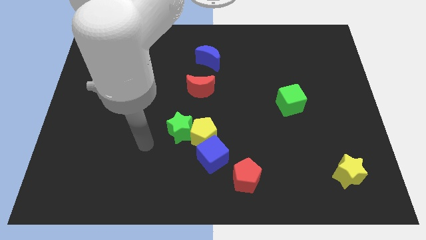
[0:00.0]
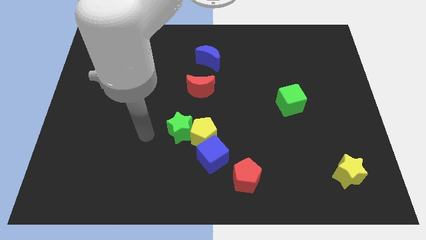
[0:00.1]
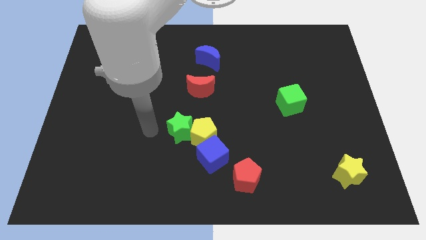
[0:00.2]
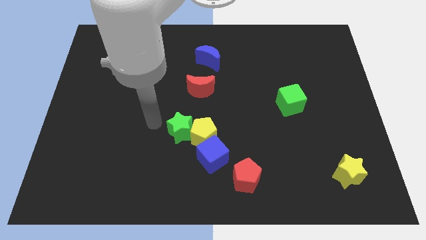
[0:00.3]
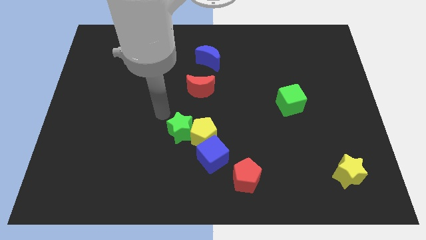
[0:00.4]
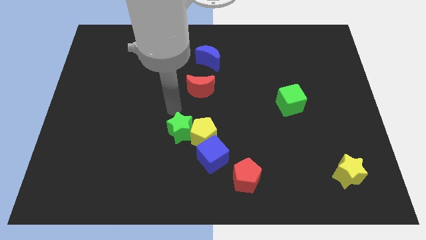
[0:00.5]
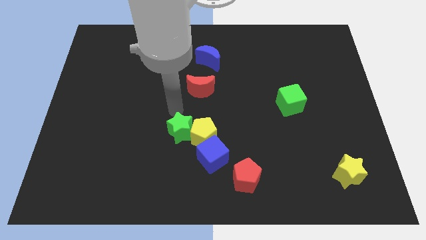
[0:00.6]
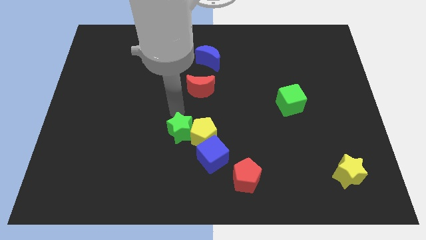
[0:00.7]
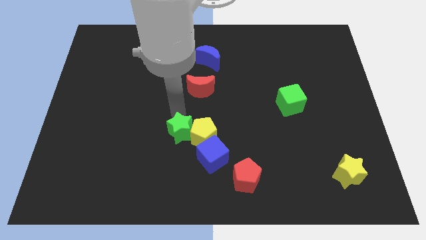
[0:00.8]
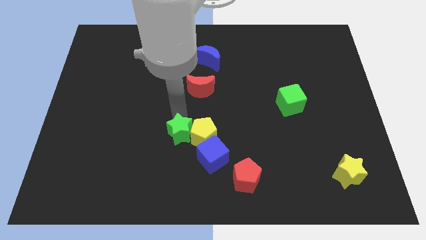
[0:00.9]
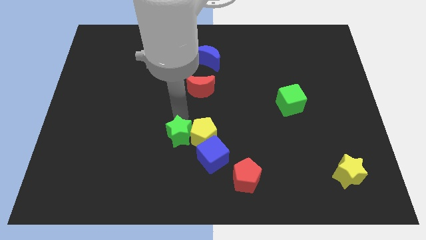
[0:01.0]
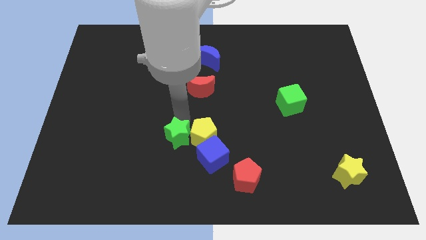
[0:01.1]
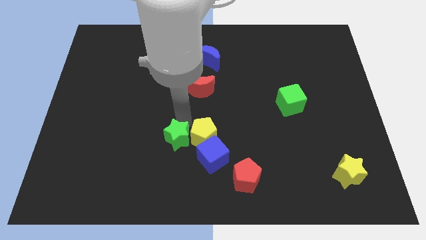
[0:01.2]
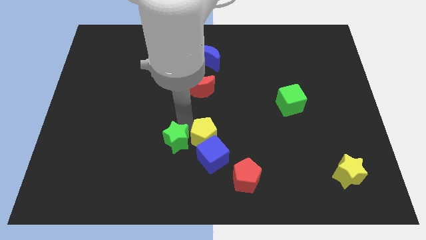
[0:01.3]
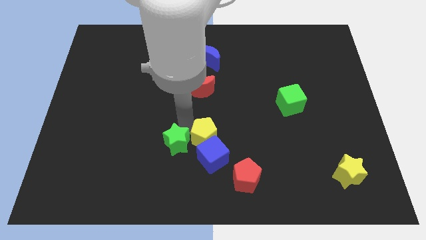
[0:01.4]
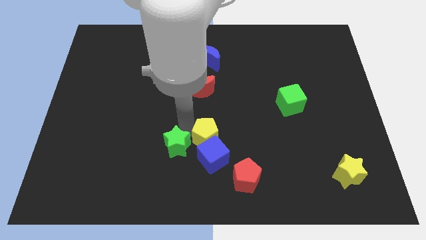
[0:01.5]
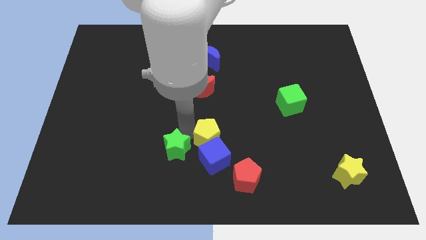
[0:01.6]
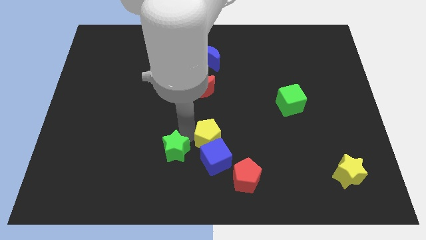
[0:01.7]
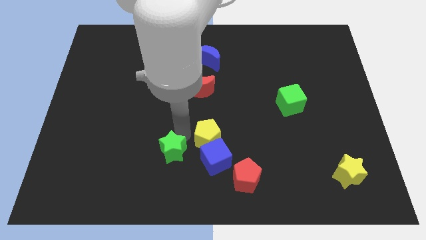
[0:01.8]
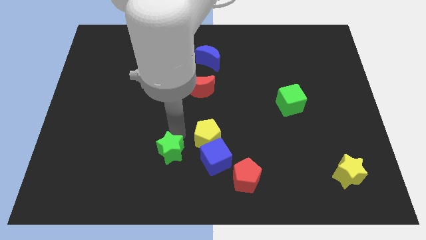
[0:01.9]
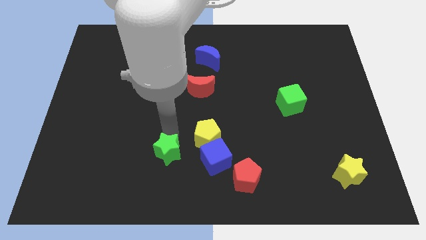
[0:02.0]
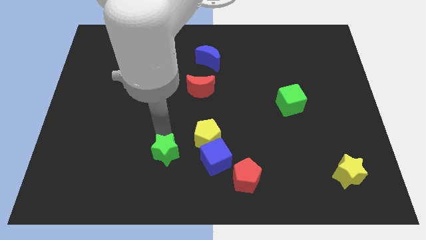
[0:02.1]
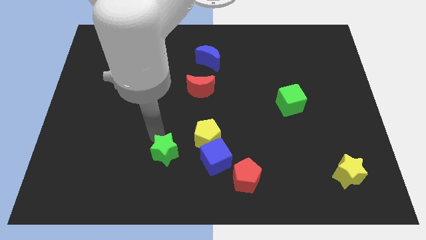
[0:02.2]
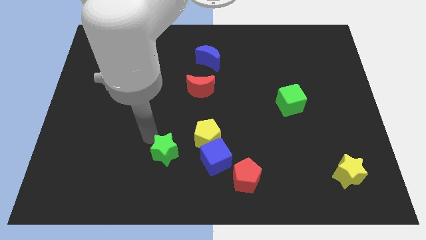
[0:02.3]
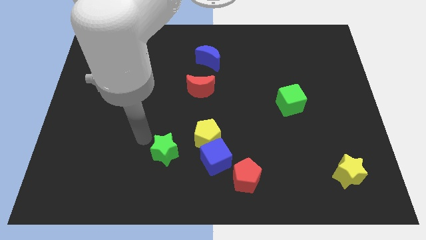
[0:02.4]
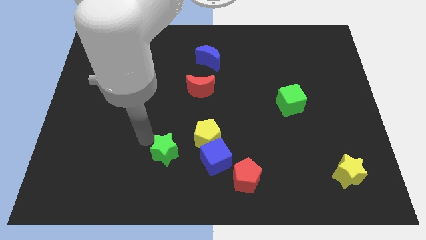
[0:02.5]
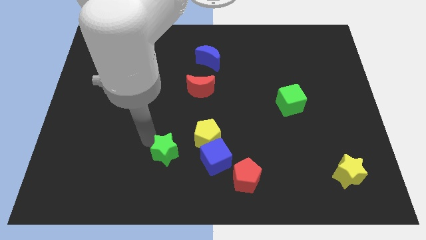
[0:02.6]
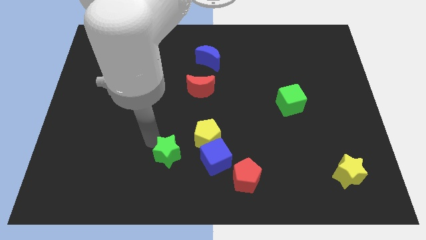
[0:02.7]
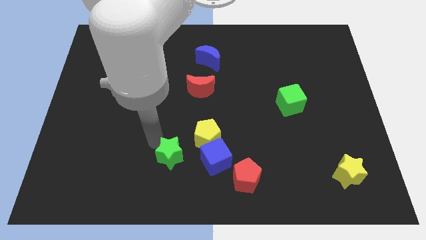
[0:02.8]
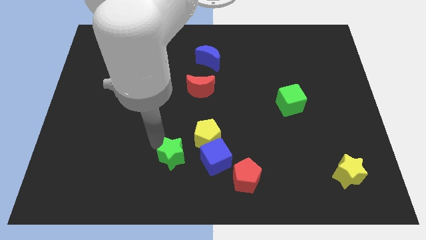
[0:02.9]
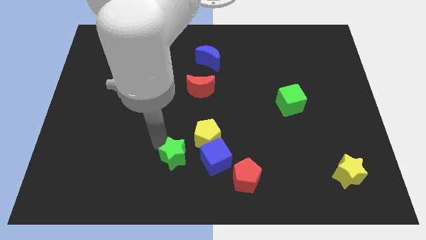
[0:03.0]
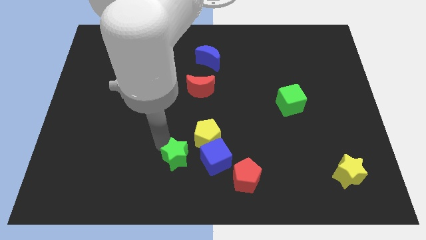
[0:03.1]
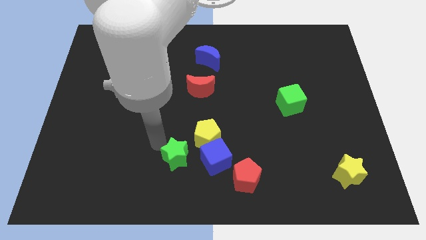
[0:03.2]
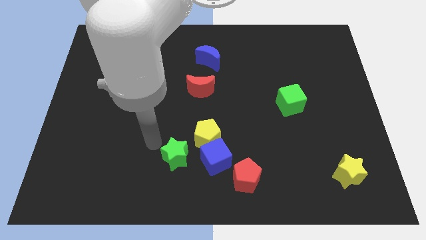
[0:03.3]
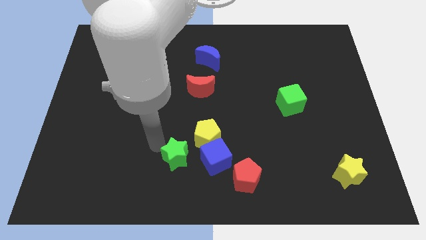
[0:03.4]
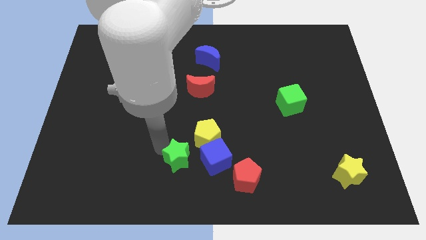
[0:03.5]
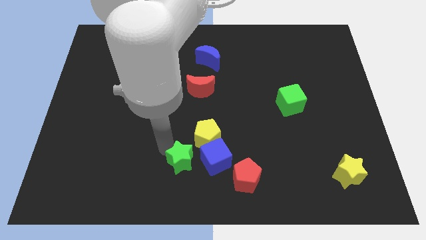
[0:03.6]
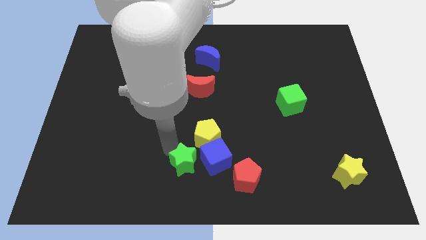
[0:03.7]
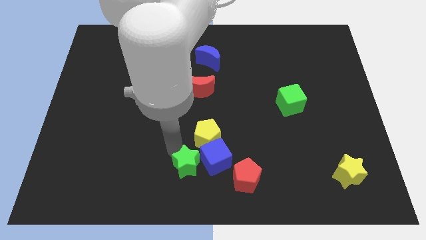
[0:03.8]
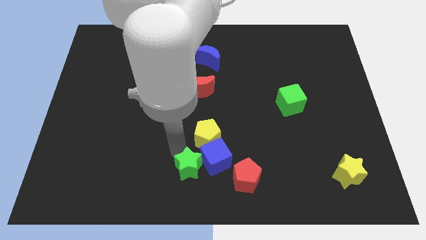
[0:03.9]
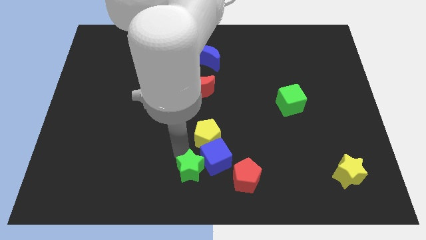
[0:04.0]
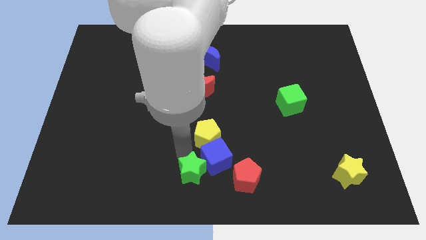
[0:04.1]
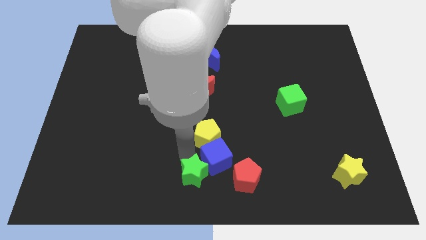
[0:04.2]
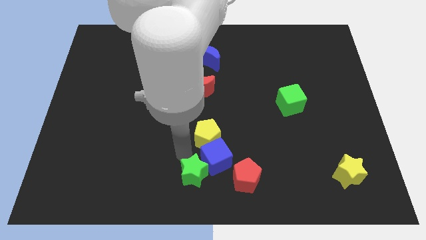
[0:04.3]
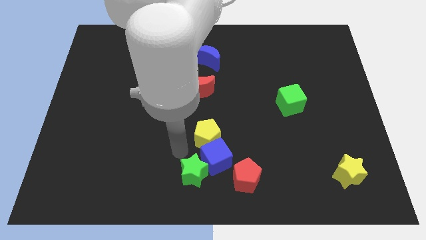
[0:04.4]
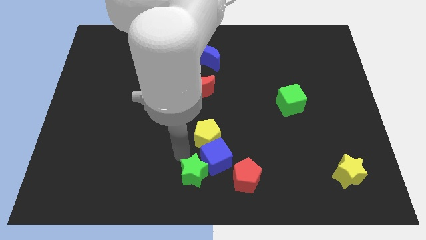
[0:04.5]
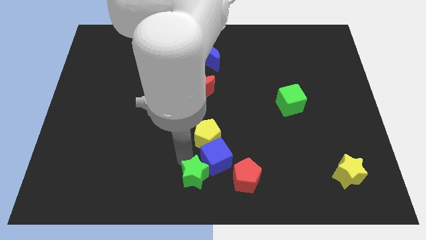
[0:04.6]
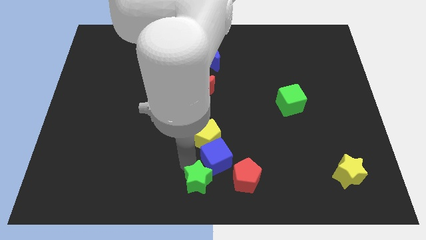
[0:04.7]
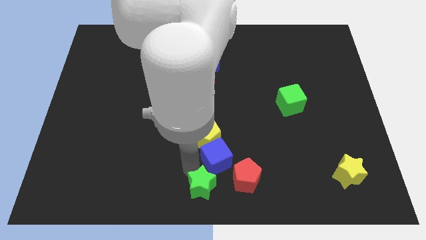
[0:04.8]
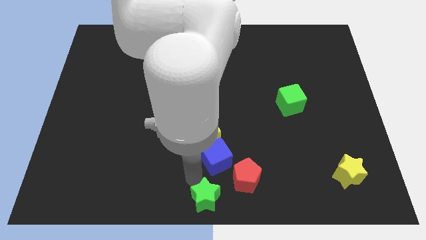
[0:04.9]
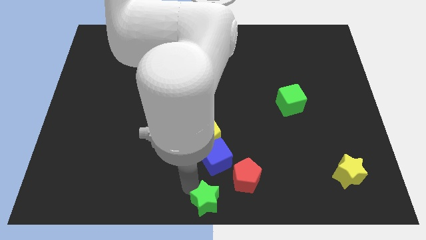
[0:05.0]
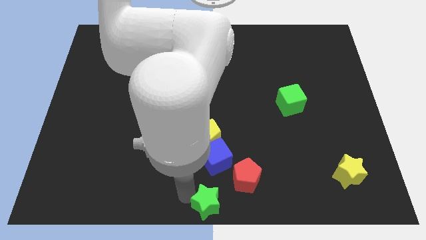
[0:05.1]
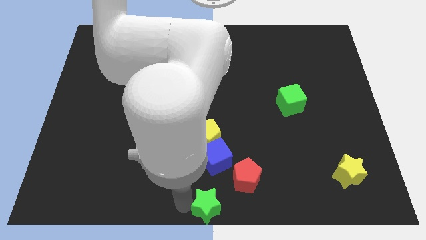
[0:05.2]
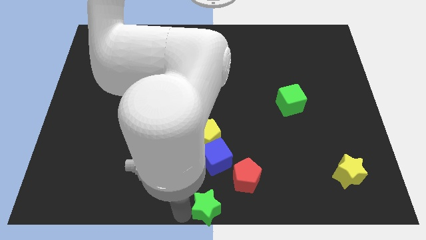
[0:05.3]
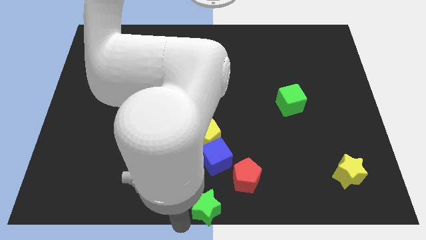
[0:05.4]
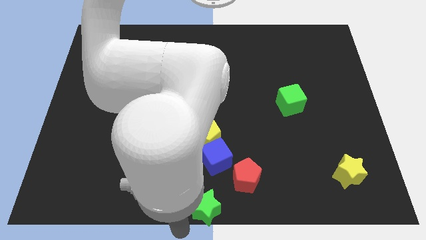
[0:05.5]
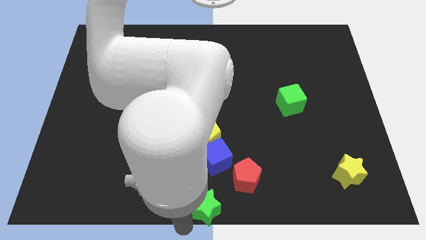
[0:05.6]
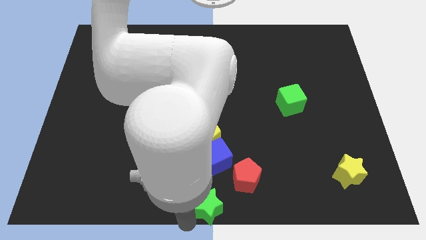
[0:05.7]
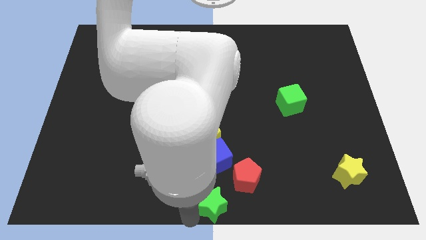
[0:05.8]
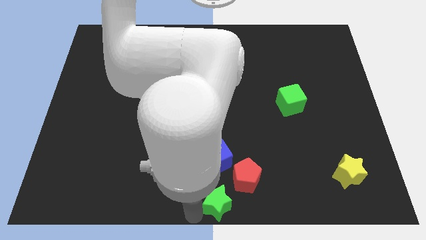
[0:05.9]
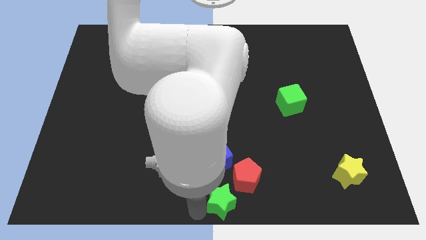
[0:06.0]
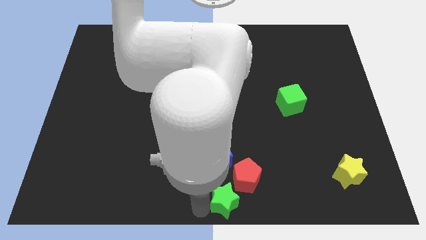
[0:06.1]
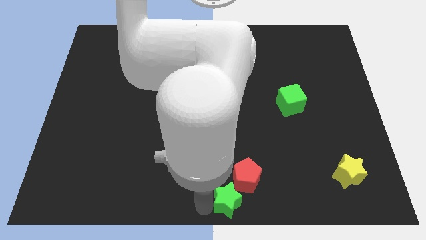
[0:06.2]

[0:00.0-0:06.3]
move the green star next to the red pentagon
